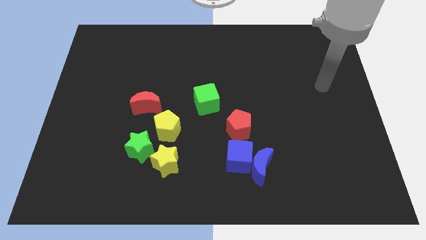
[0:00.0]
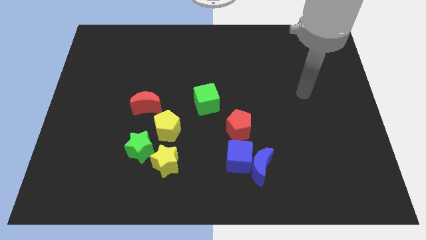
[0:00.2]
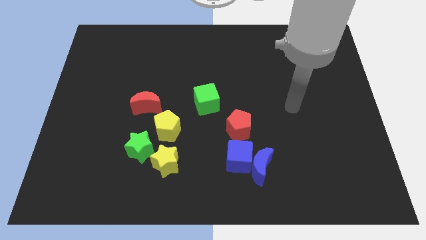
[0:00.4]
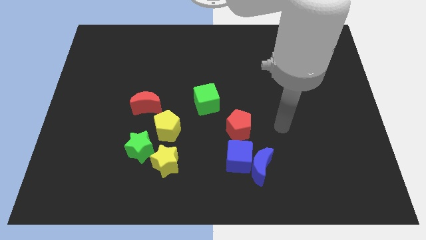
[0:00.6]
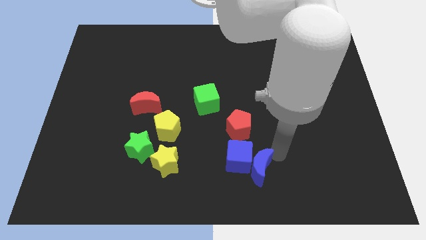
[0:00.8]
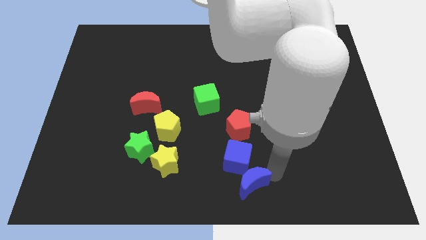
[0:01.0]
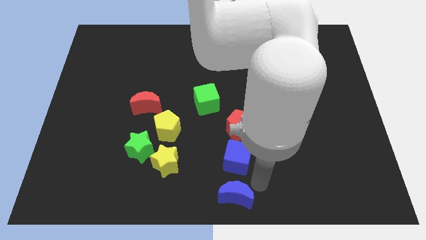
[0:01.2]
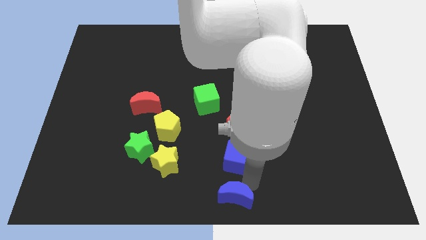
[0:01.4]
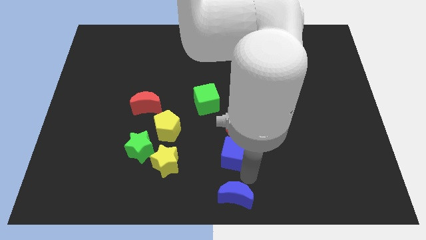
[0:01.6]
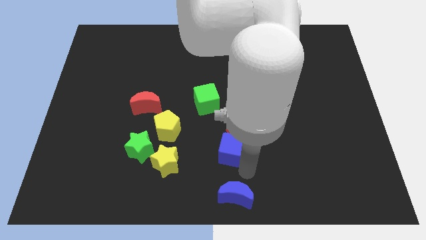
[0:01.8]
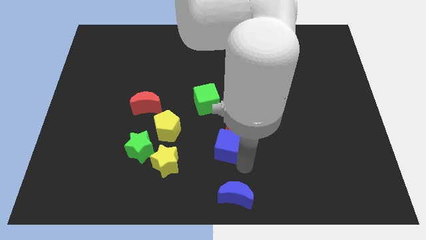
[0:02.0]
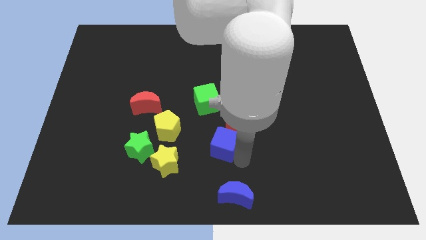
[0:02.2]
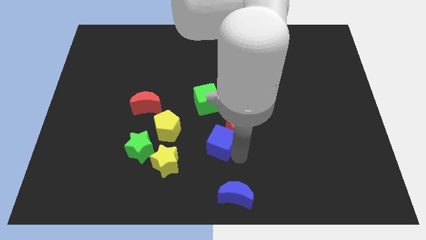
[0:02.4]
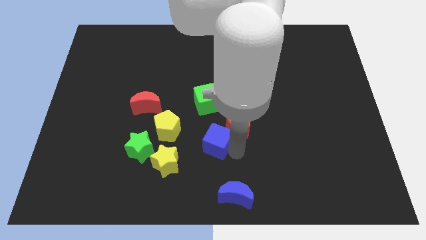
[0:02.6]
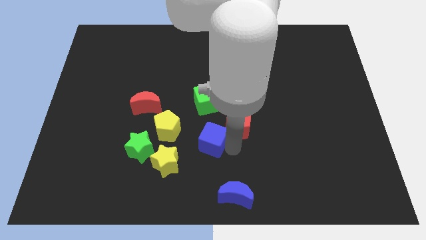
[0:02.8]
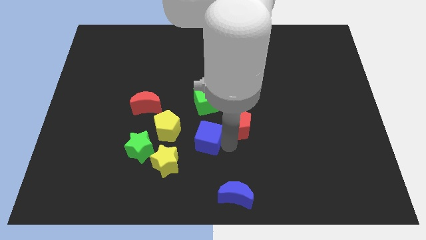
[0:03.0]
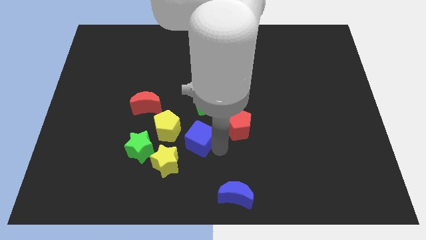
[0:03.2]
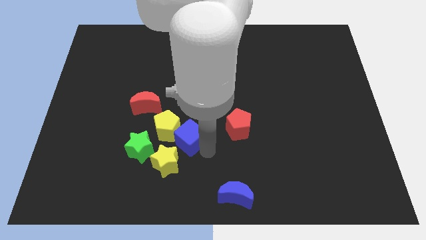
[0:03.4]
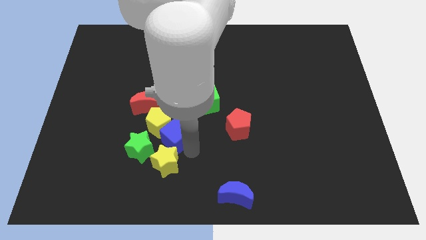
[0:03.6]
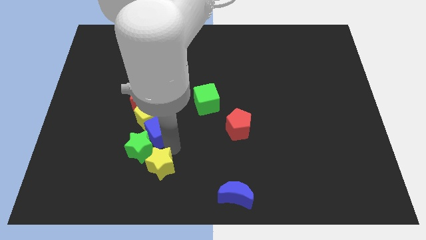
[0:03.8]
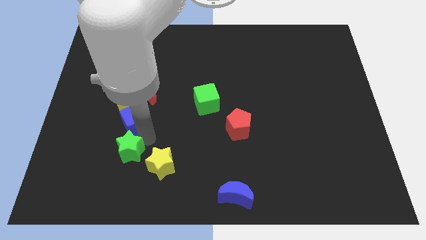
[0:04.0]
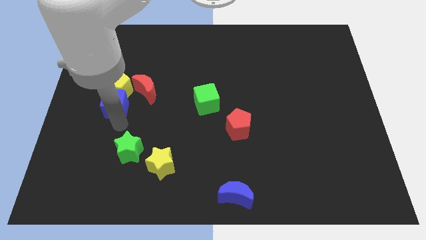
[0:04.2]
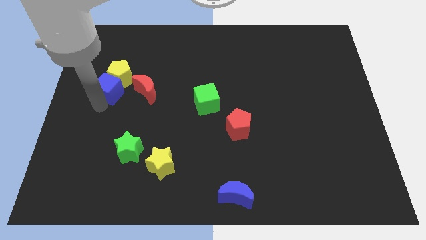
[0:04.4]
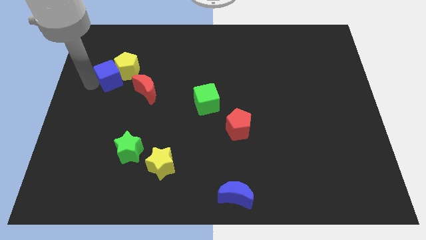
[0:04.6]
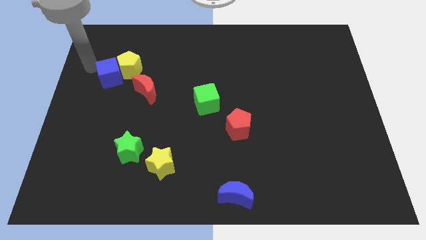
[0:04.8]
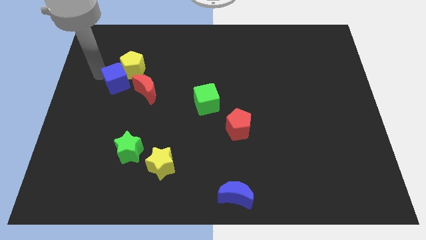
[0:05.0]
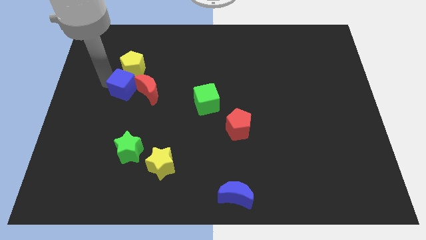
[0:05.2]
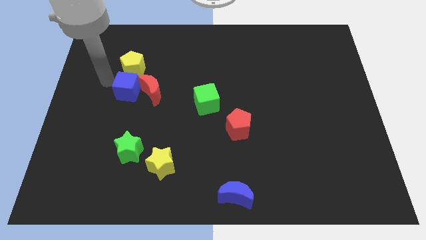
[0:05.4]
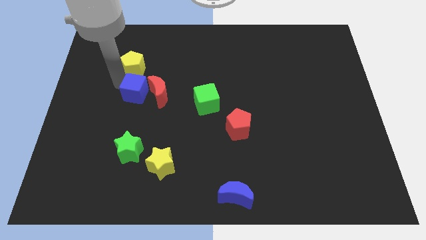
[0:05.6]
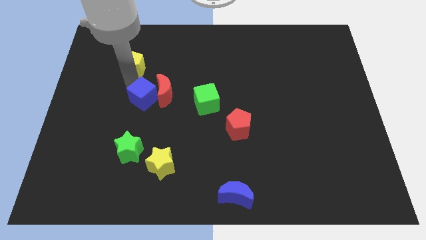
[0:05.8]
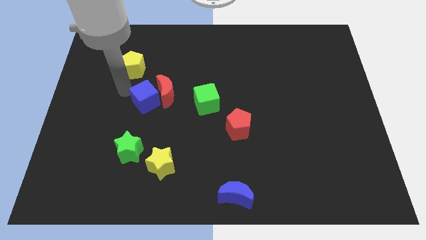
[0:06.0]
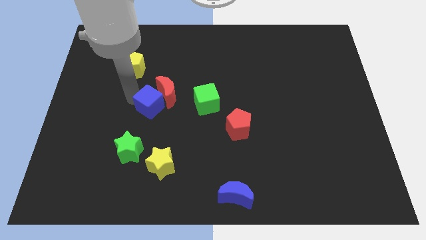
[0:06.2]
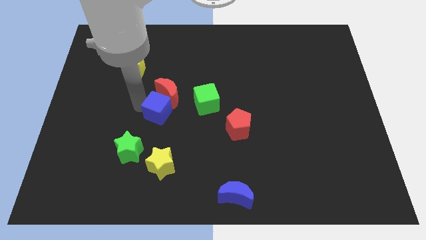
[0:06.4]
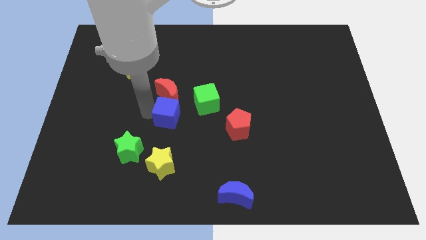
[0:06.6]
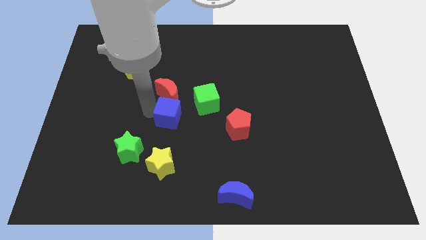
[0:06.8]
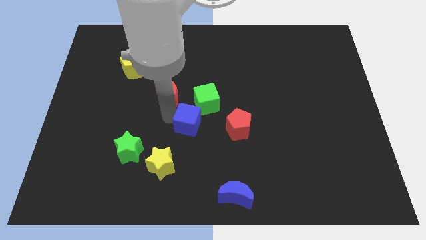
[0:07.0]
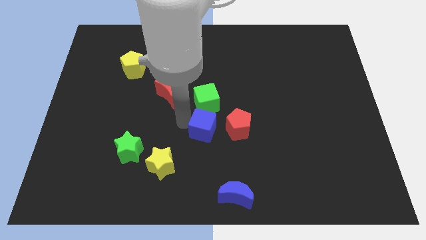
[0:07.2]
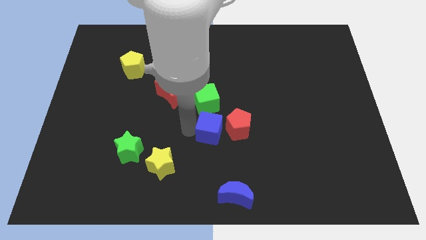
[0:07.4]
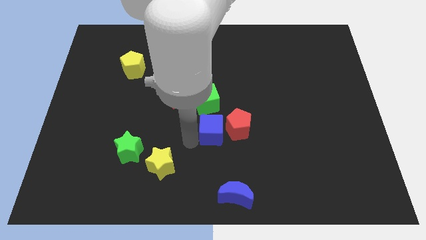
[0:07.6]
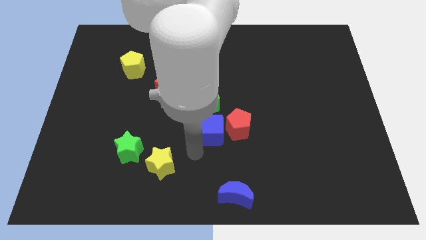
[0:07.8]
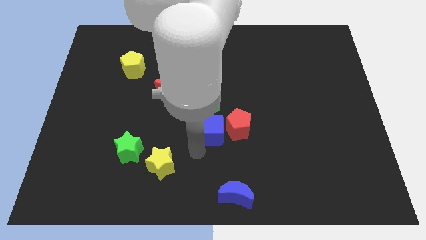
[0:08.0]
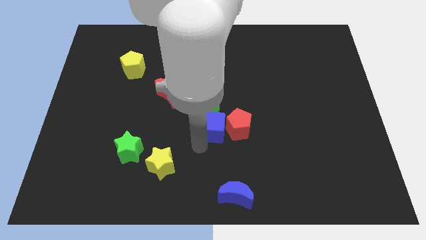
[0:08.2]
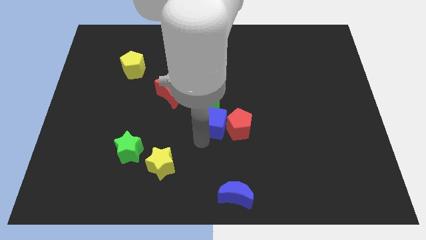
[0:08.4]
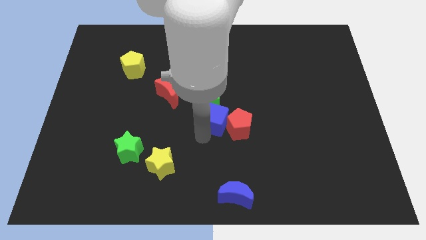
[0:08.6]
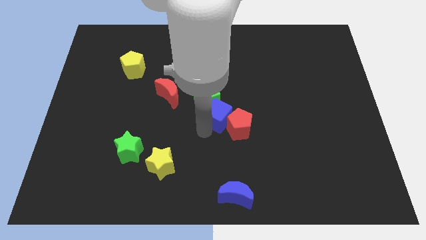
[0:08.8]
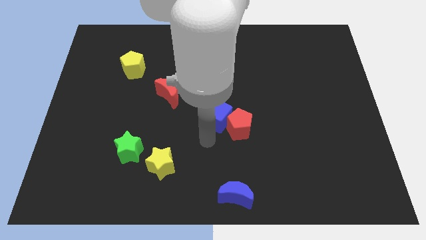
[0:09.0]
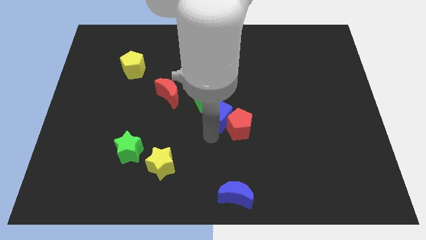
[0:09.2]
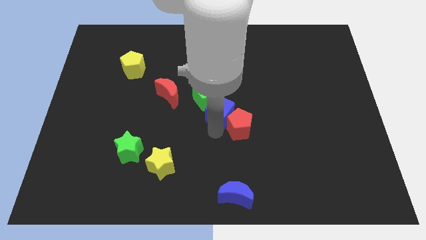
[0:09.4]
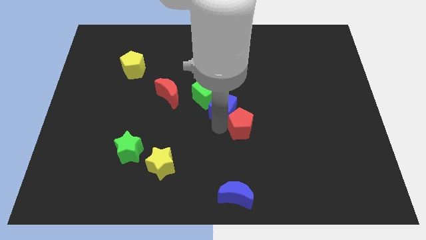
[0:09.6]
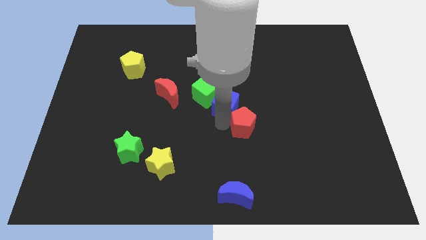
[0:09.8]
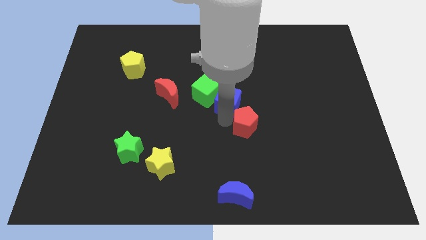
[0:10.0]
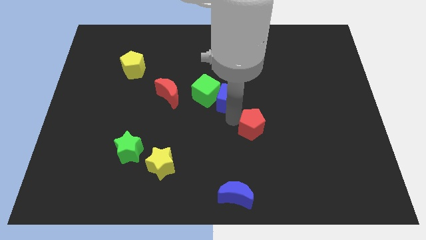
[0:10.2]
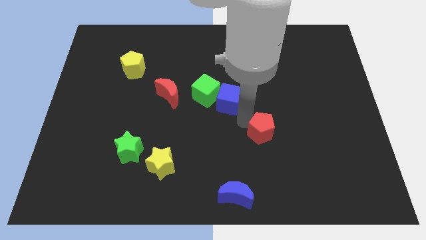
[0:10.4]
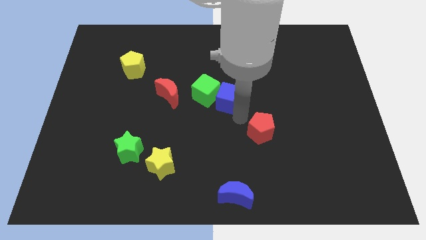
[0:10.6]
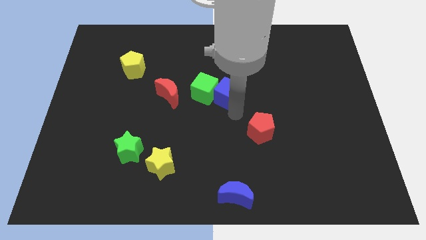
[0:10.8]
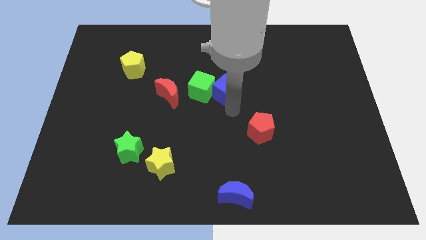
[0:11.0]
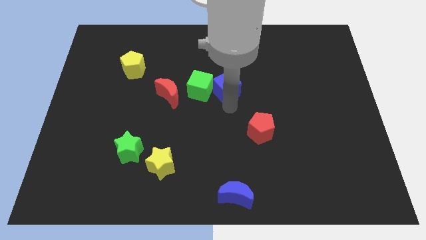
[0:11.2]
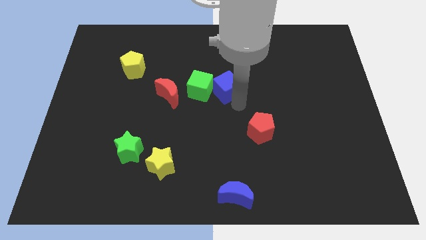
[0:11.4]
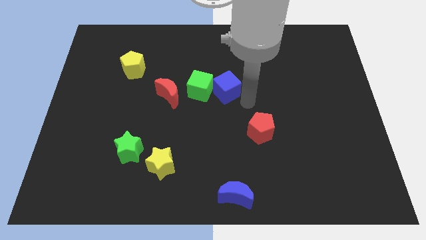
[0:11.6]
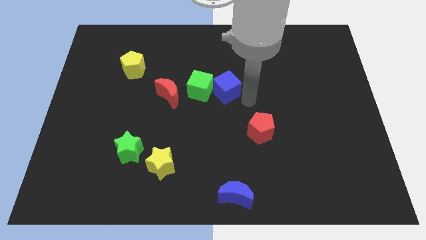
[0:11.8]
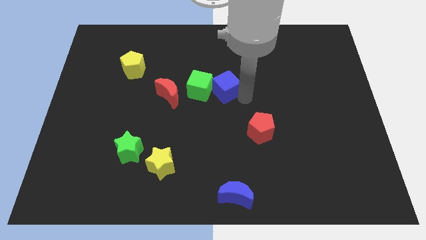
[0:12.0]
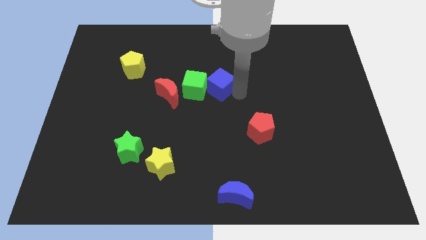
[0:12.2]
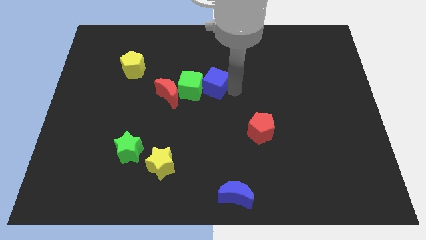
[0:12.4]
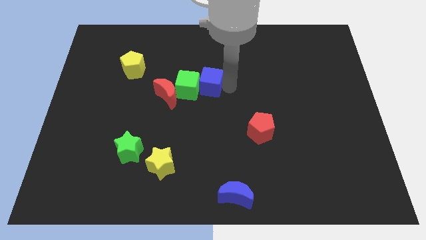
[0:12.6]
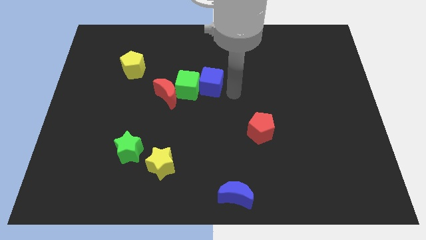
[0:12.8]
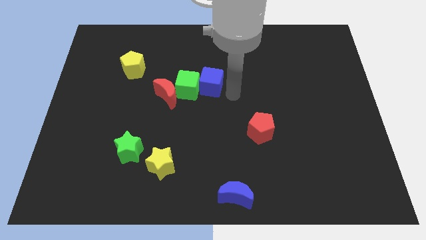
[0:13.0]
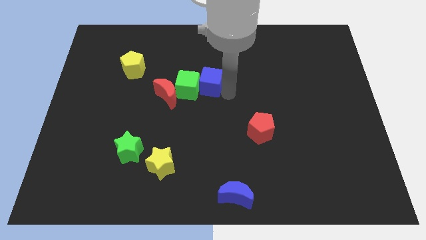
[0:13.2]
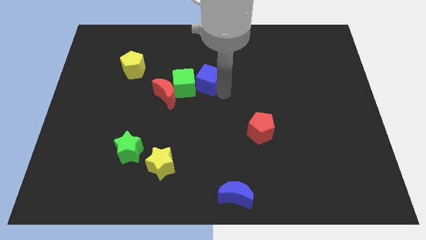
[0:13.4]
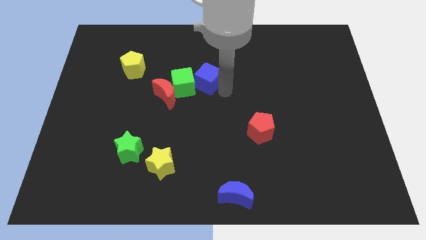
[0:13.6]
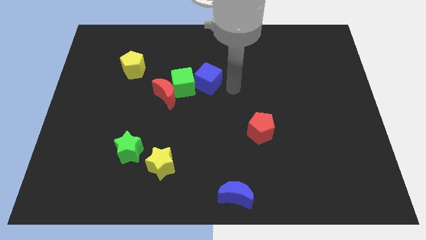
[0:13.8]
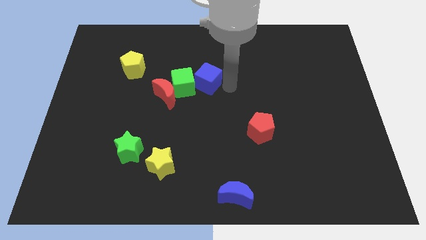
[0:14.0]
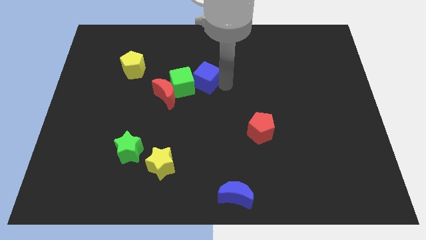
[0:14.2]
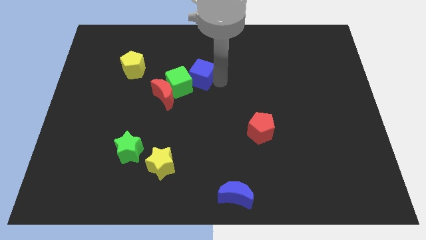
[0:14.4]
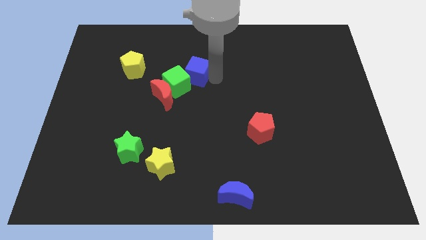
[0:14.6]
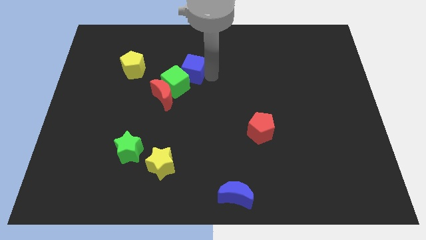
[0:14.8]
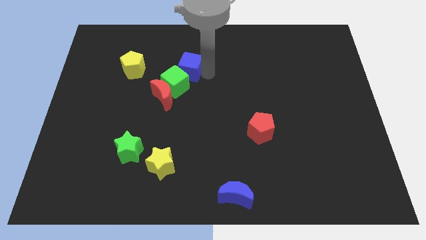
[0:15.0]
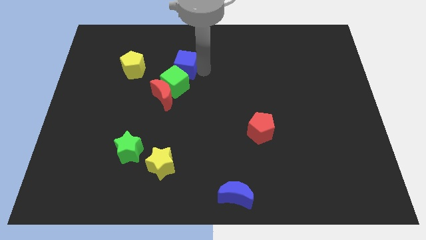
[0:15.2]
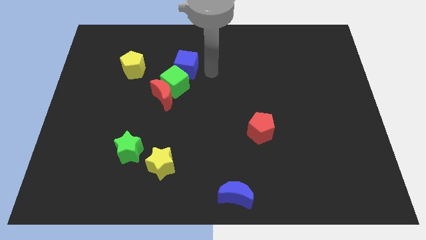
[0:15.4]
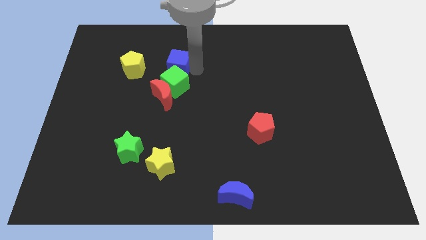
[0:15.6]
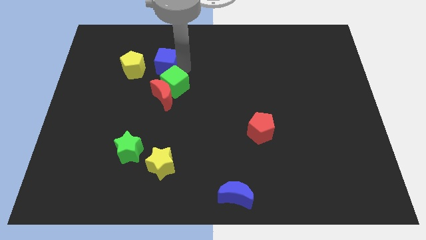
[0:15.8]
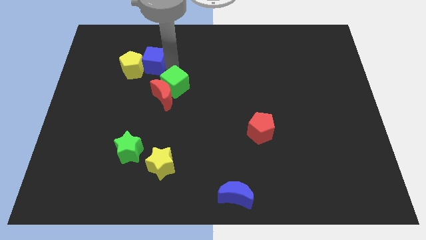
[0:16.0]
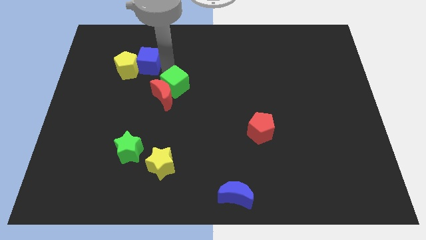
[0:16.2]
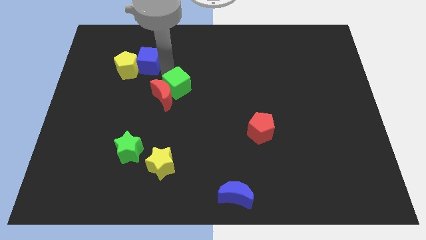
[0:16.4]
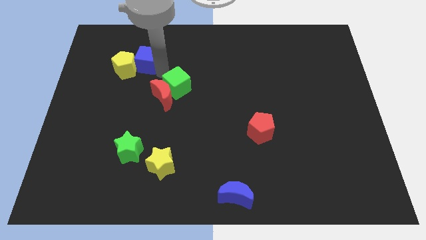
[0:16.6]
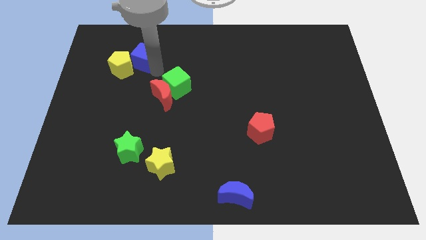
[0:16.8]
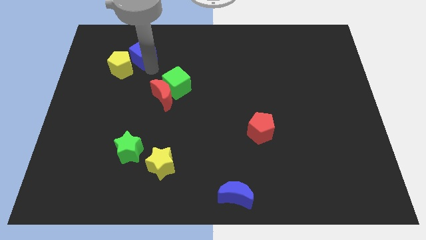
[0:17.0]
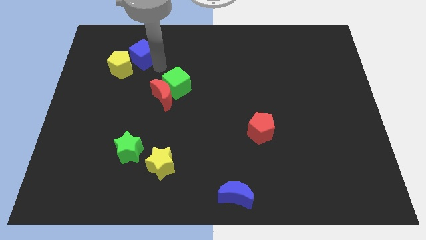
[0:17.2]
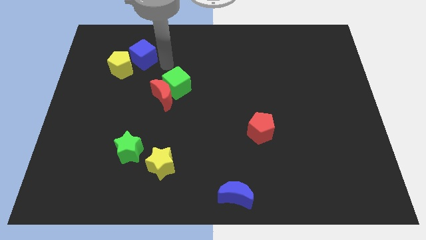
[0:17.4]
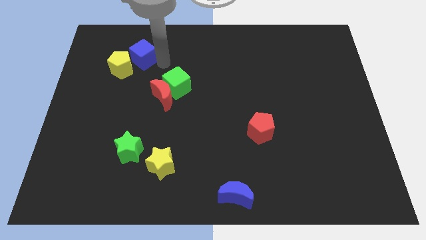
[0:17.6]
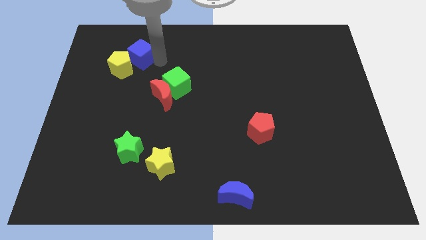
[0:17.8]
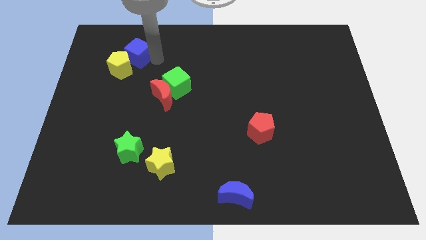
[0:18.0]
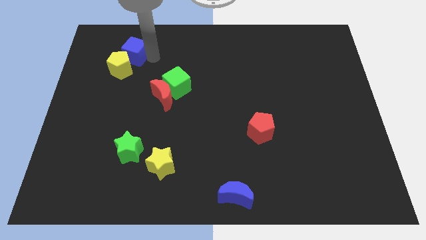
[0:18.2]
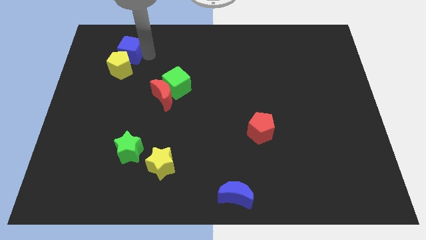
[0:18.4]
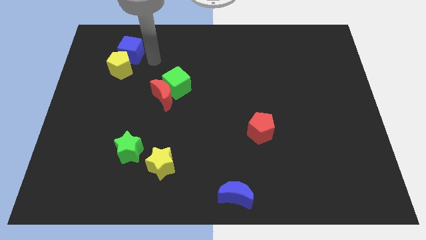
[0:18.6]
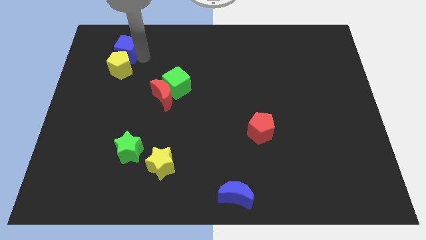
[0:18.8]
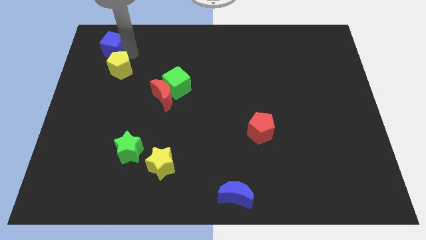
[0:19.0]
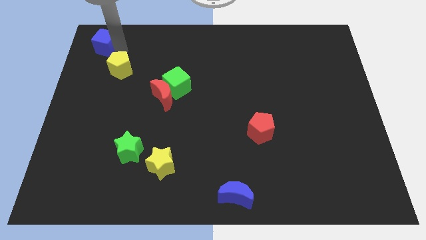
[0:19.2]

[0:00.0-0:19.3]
put the blue cube to the top left
